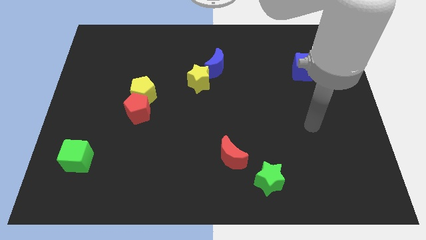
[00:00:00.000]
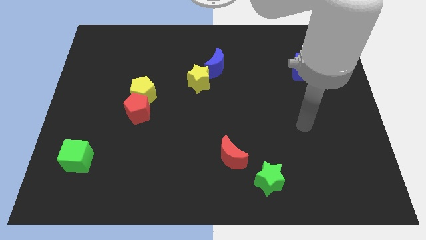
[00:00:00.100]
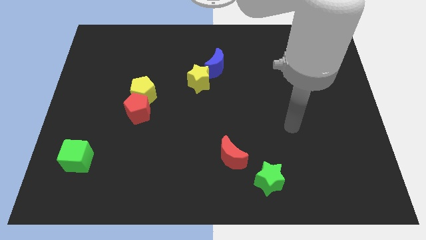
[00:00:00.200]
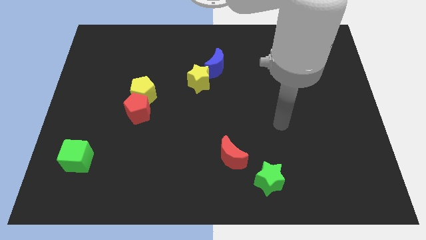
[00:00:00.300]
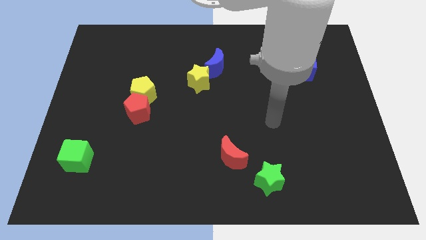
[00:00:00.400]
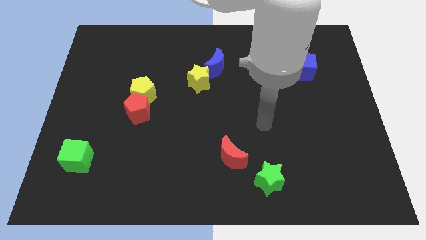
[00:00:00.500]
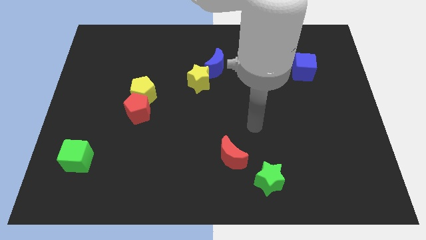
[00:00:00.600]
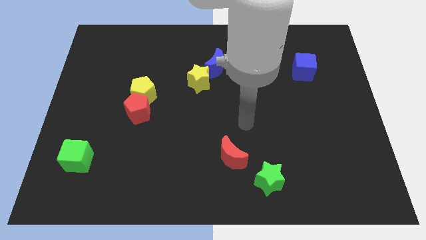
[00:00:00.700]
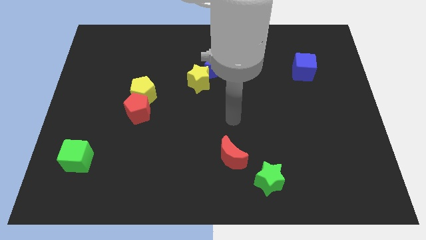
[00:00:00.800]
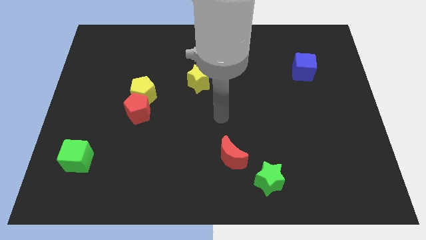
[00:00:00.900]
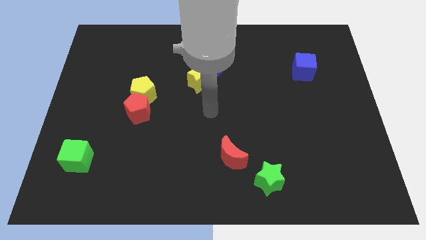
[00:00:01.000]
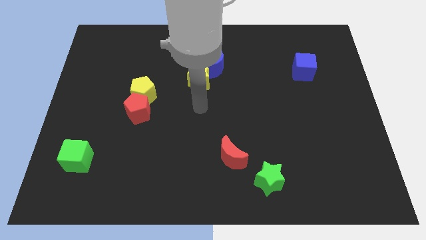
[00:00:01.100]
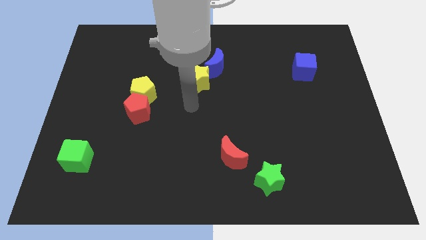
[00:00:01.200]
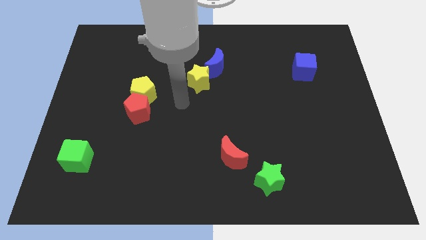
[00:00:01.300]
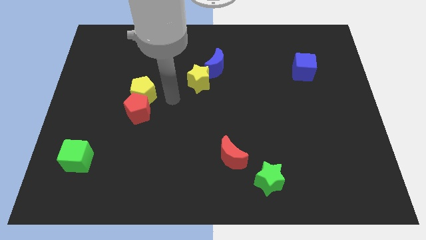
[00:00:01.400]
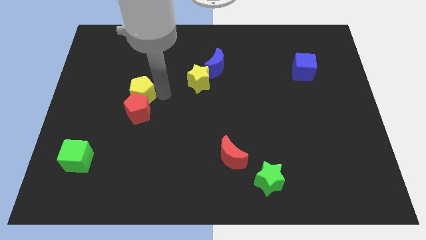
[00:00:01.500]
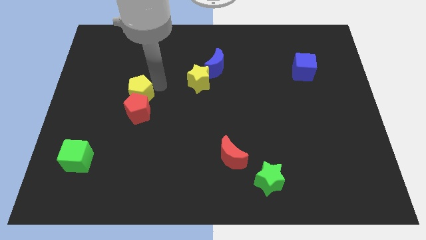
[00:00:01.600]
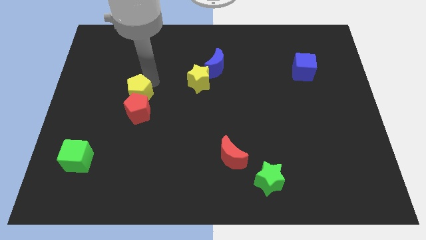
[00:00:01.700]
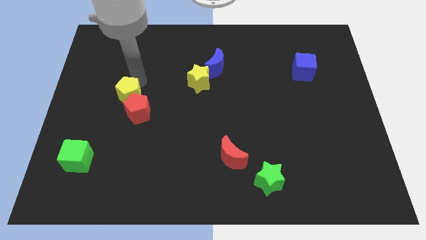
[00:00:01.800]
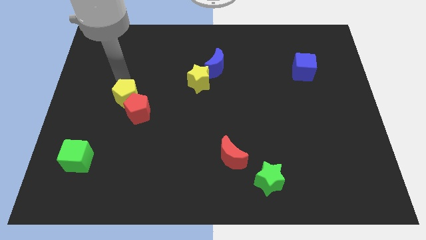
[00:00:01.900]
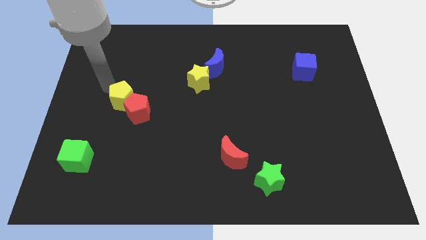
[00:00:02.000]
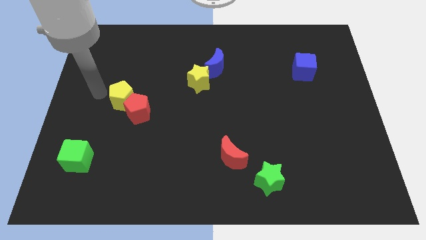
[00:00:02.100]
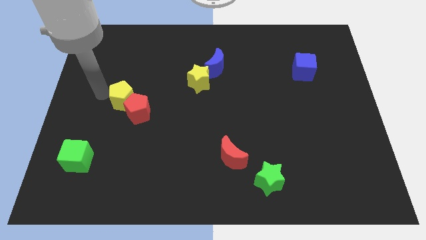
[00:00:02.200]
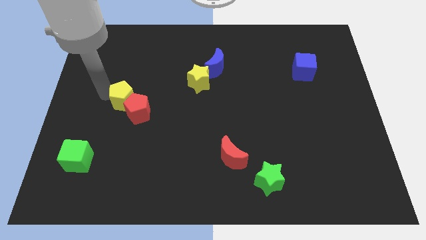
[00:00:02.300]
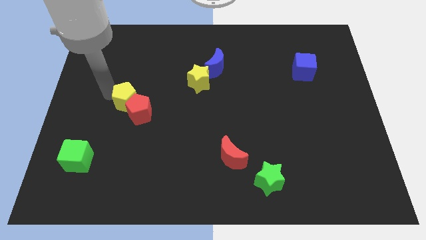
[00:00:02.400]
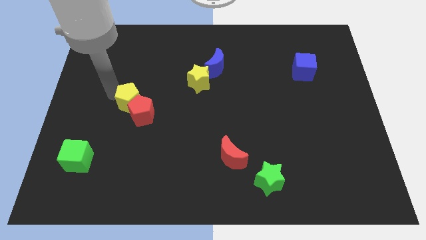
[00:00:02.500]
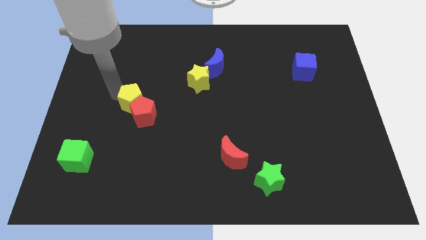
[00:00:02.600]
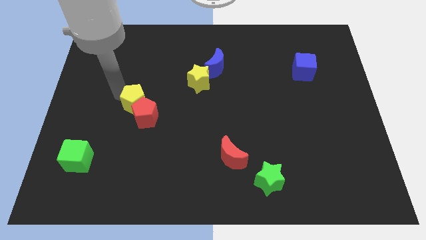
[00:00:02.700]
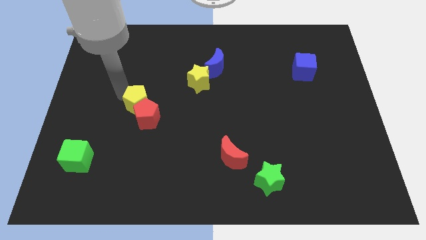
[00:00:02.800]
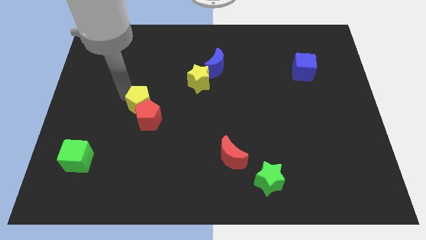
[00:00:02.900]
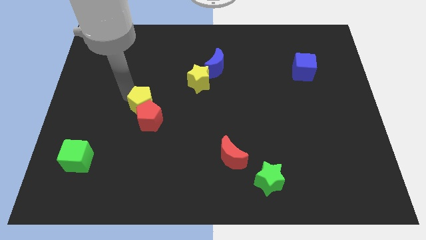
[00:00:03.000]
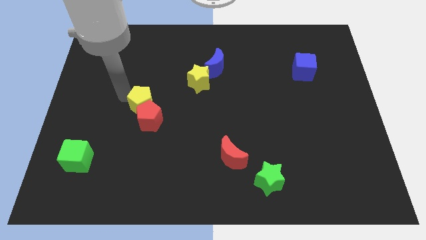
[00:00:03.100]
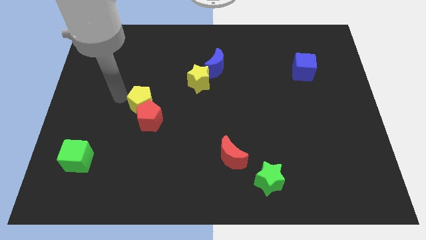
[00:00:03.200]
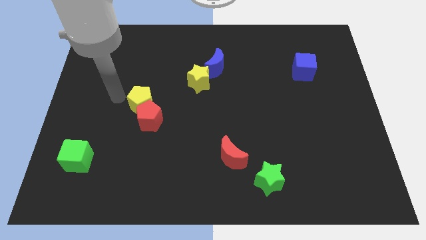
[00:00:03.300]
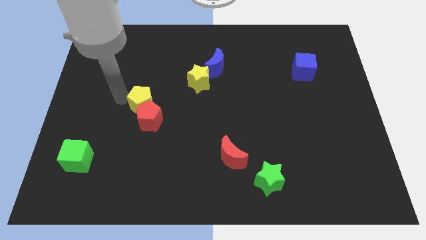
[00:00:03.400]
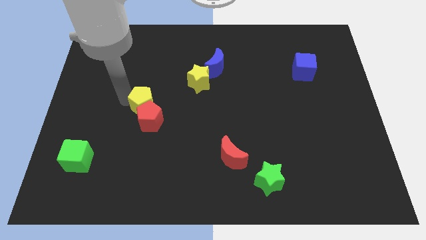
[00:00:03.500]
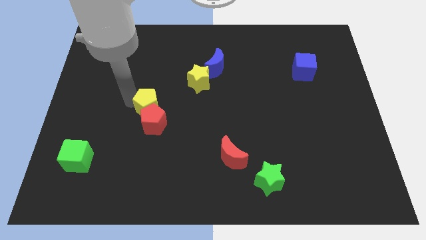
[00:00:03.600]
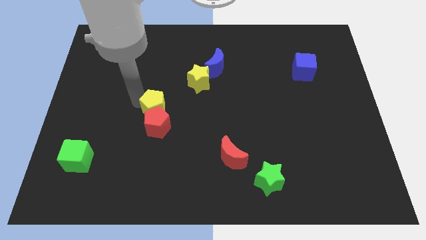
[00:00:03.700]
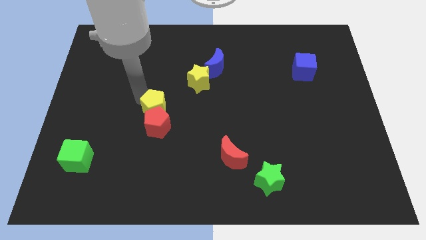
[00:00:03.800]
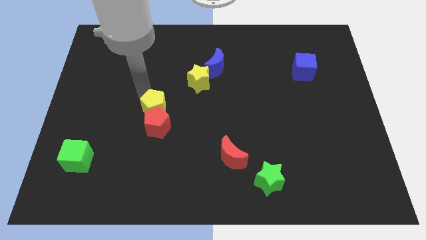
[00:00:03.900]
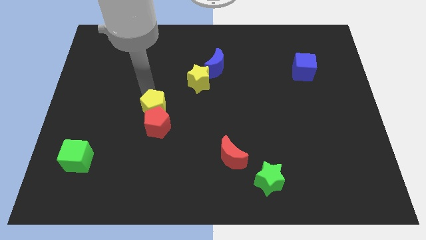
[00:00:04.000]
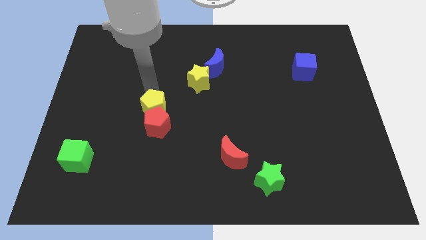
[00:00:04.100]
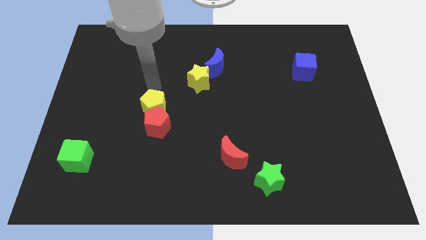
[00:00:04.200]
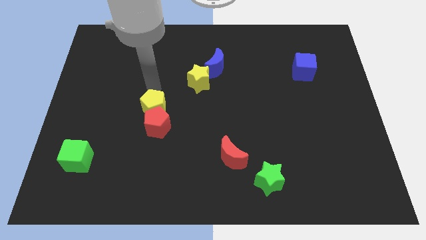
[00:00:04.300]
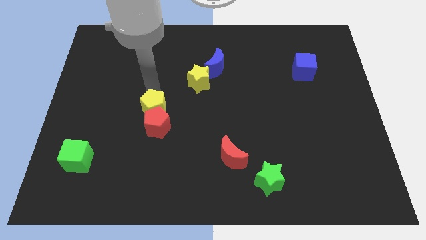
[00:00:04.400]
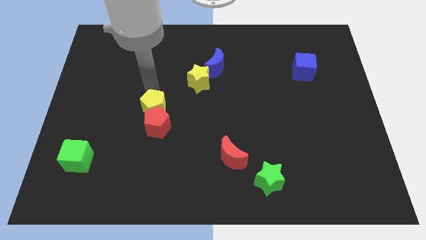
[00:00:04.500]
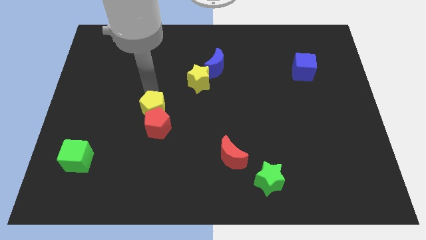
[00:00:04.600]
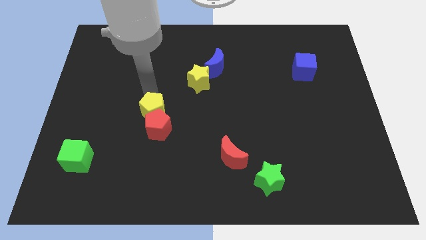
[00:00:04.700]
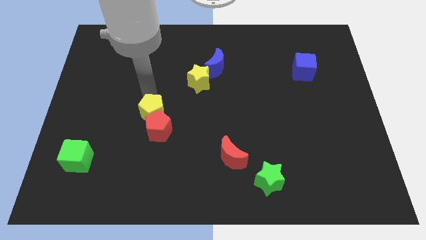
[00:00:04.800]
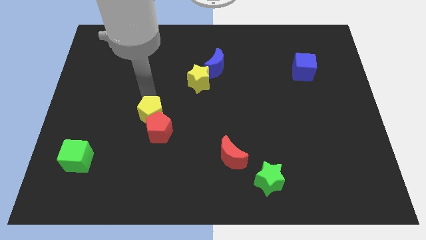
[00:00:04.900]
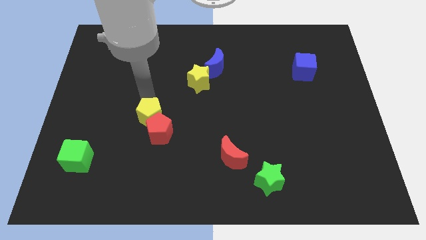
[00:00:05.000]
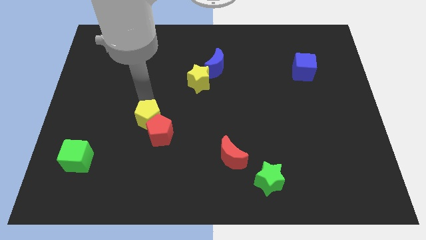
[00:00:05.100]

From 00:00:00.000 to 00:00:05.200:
slightly move the yellow pentagon down

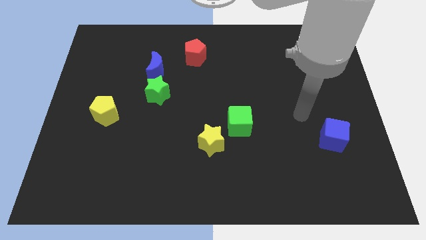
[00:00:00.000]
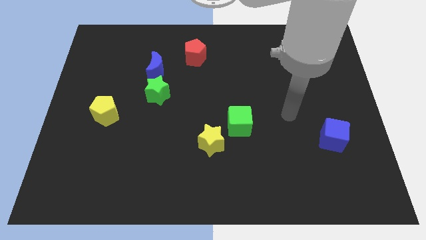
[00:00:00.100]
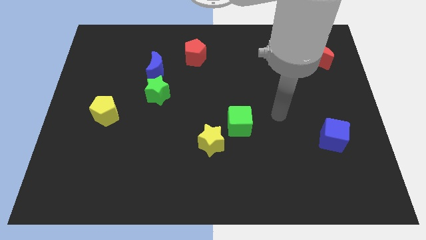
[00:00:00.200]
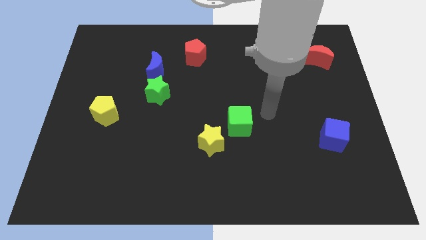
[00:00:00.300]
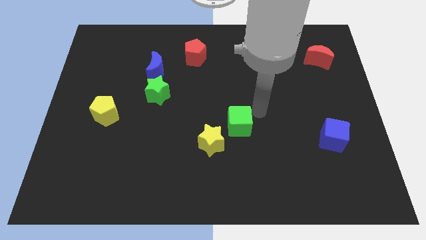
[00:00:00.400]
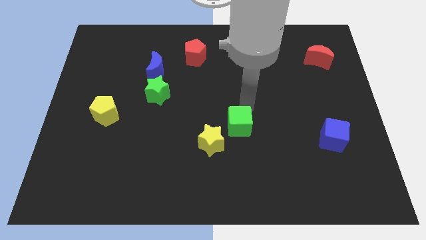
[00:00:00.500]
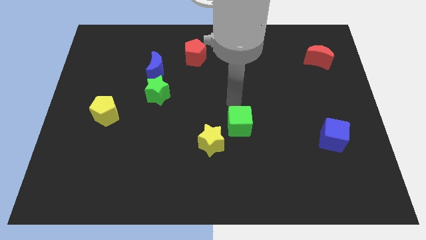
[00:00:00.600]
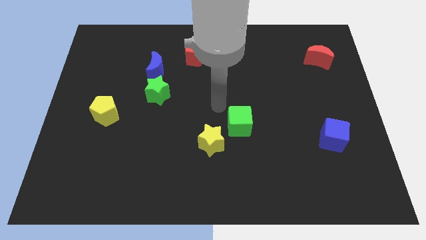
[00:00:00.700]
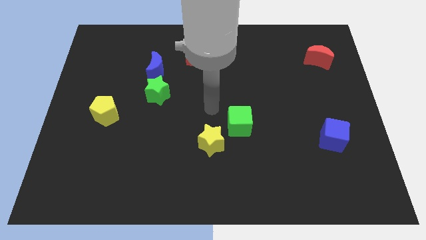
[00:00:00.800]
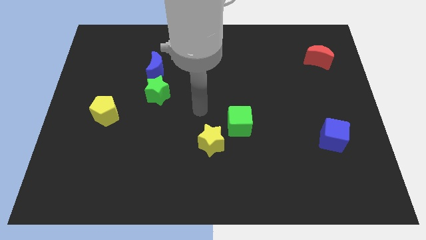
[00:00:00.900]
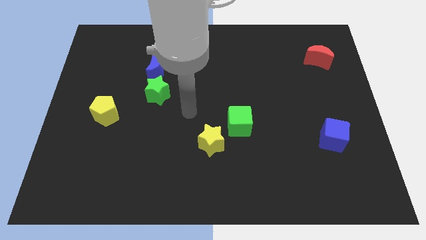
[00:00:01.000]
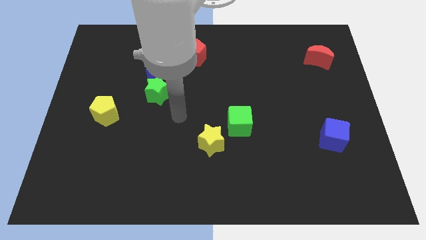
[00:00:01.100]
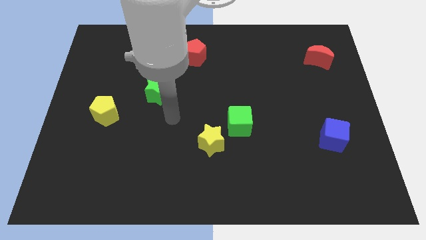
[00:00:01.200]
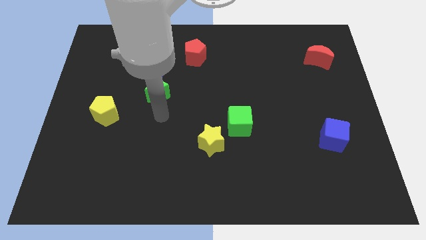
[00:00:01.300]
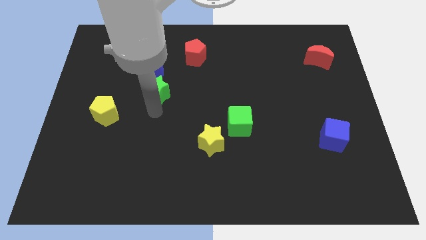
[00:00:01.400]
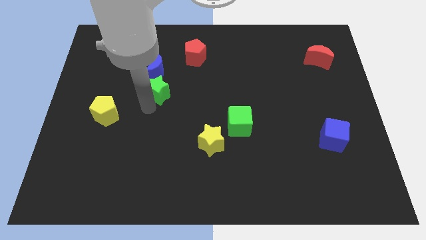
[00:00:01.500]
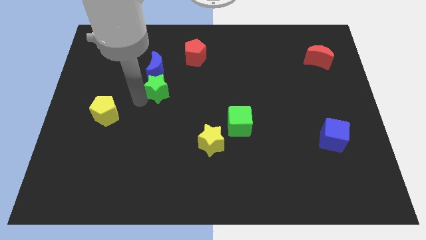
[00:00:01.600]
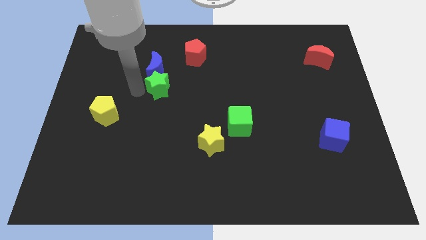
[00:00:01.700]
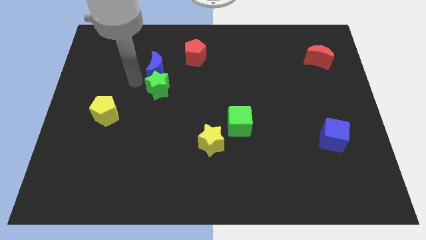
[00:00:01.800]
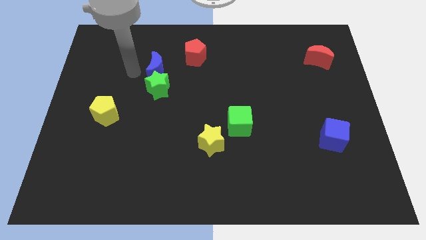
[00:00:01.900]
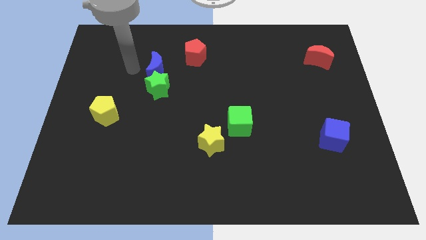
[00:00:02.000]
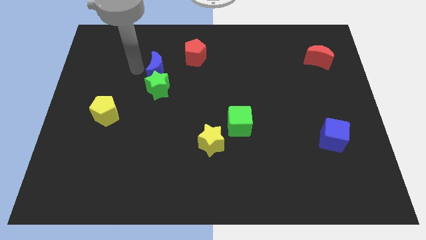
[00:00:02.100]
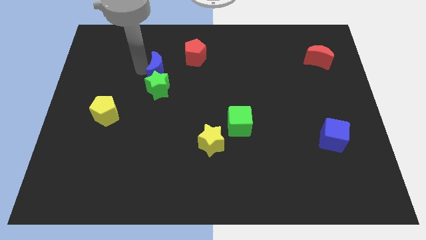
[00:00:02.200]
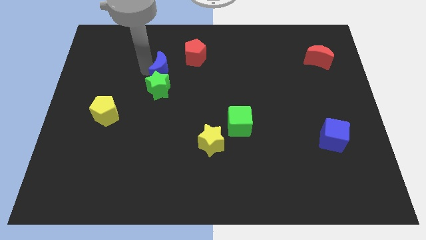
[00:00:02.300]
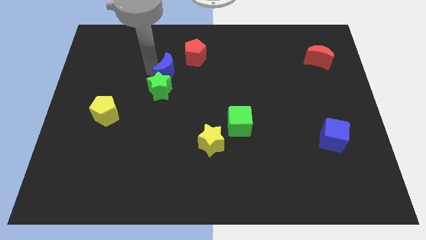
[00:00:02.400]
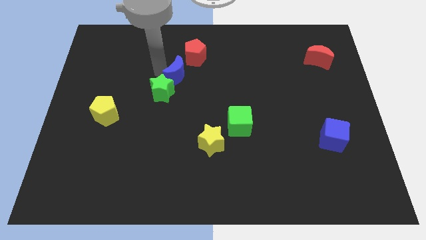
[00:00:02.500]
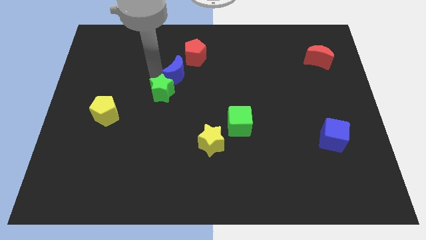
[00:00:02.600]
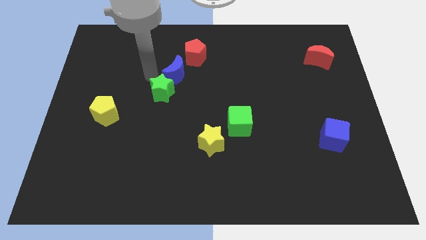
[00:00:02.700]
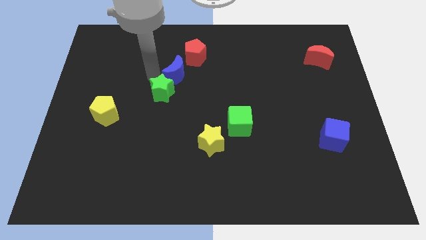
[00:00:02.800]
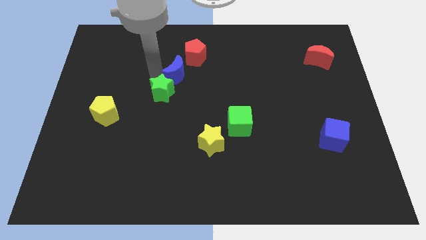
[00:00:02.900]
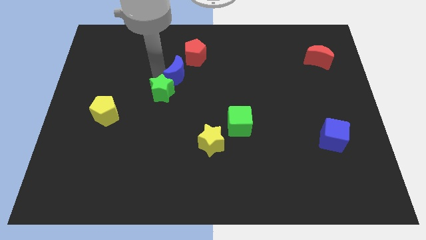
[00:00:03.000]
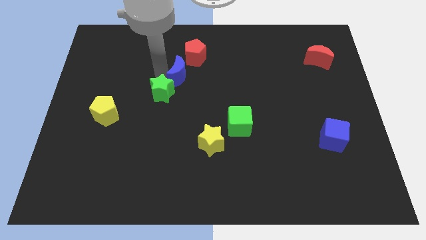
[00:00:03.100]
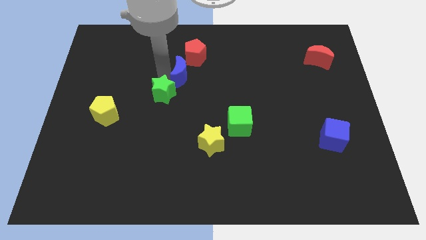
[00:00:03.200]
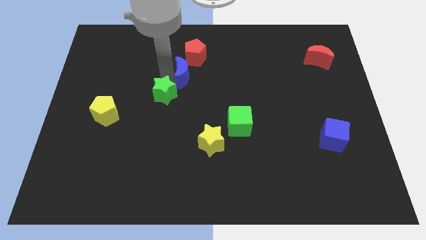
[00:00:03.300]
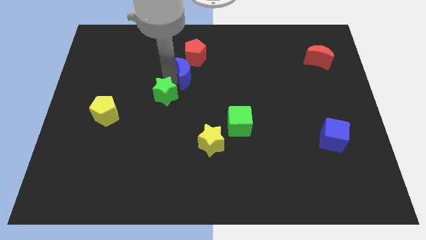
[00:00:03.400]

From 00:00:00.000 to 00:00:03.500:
move the blue moon right a little
